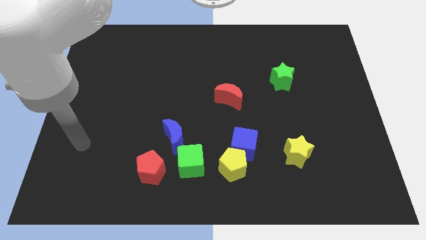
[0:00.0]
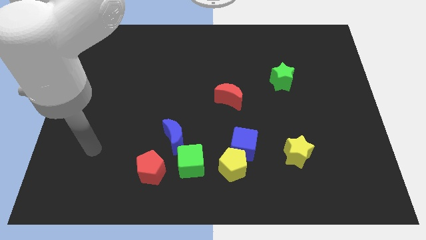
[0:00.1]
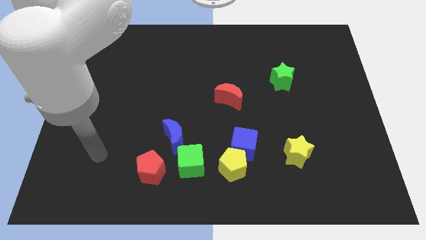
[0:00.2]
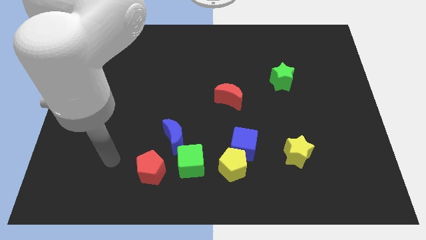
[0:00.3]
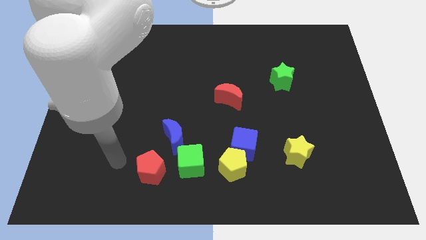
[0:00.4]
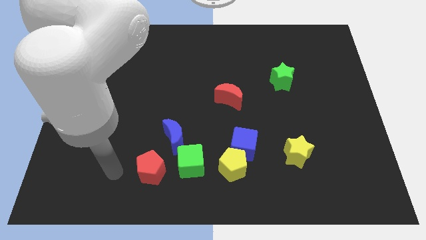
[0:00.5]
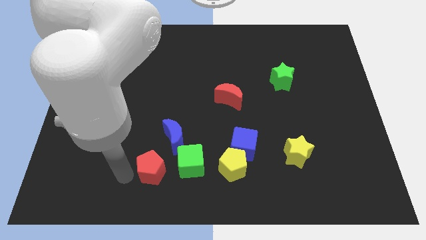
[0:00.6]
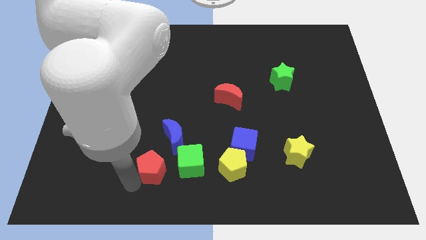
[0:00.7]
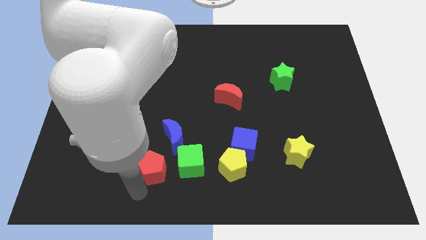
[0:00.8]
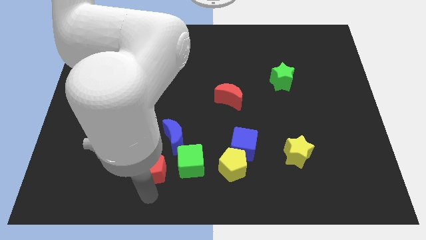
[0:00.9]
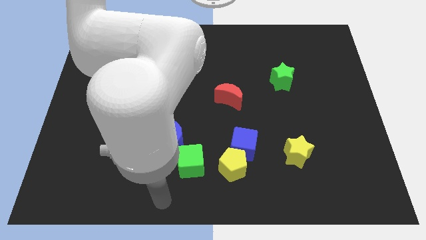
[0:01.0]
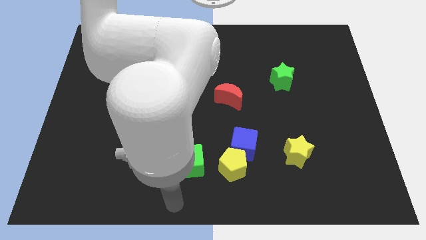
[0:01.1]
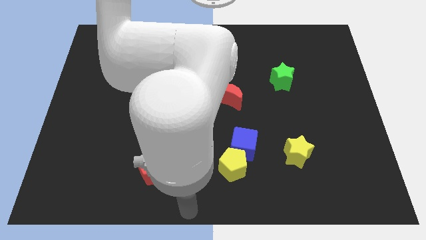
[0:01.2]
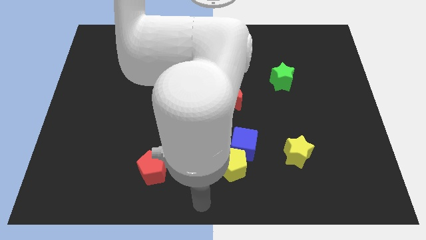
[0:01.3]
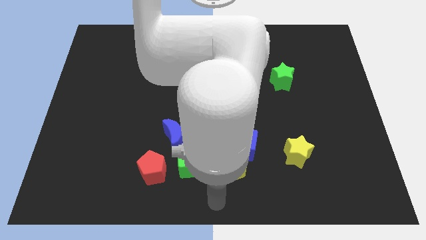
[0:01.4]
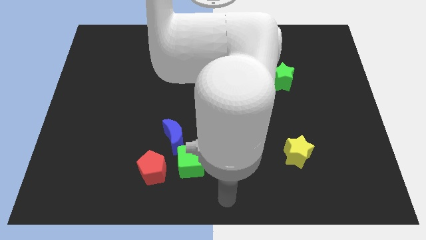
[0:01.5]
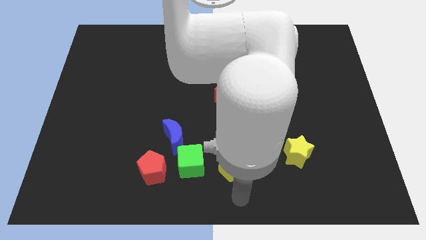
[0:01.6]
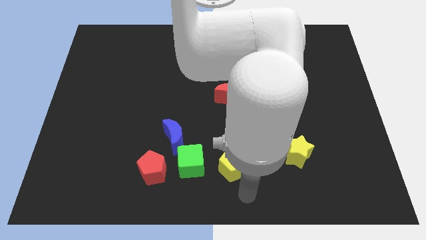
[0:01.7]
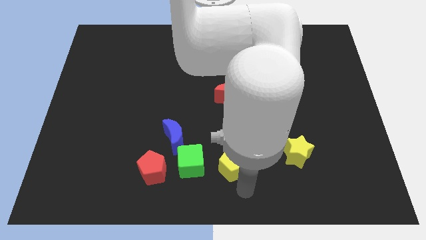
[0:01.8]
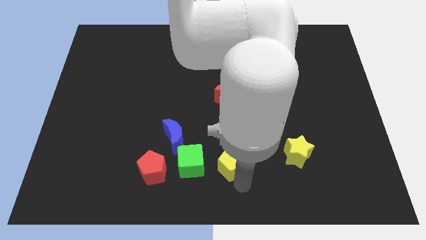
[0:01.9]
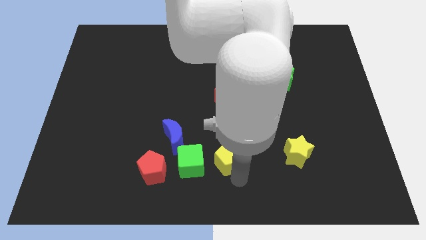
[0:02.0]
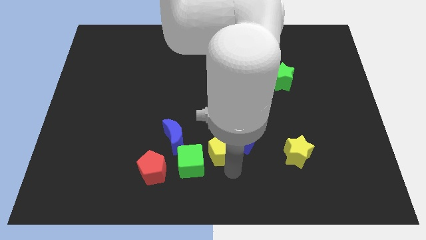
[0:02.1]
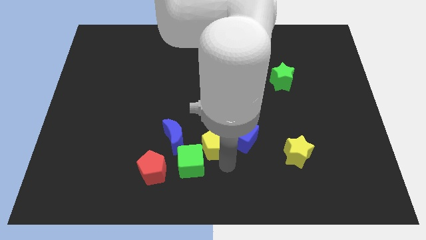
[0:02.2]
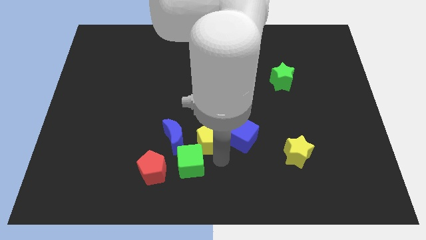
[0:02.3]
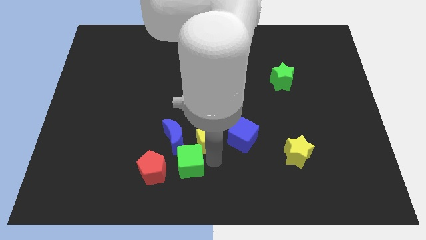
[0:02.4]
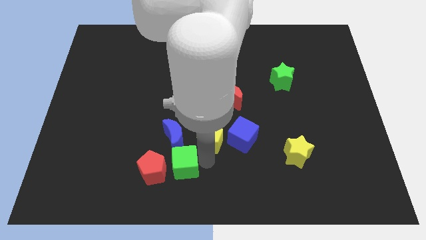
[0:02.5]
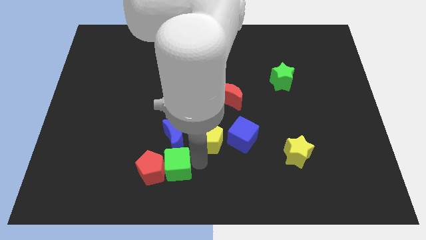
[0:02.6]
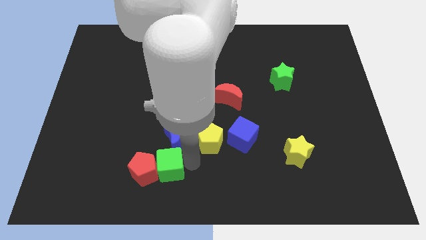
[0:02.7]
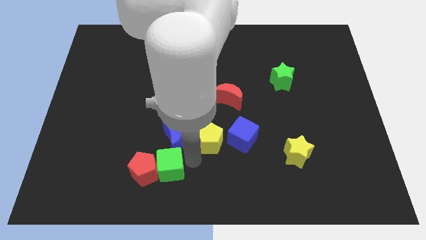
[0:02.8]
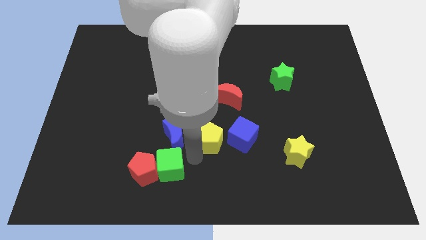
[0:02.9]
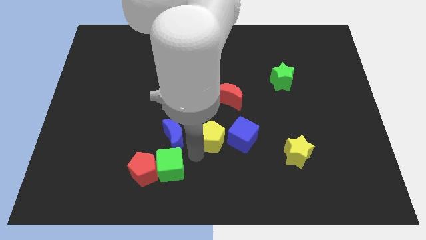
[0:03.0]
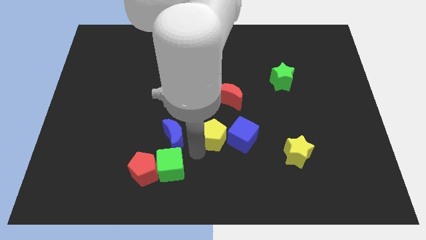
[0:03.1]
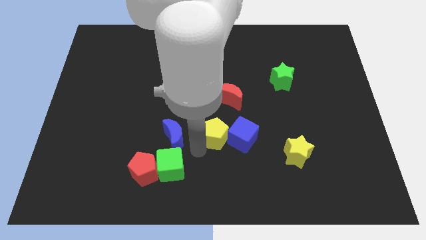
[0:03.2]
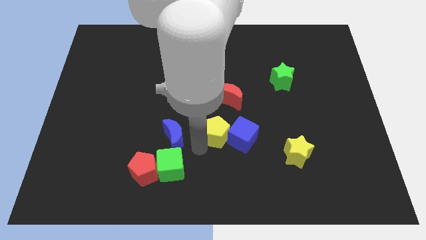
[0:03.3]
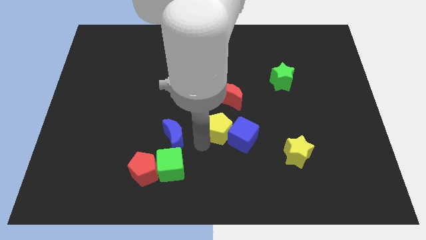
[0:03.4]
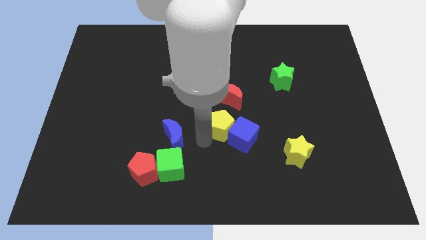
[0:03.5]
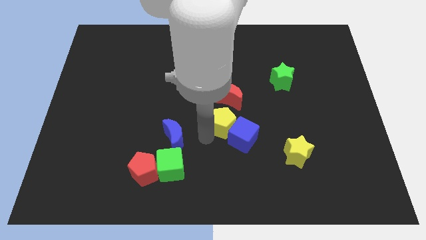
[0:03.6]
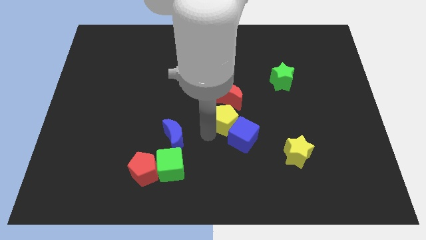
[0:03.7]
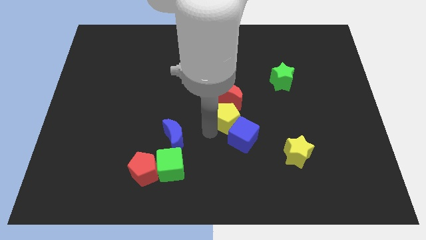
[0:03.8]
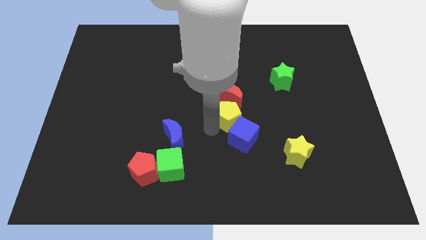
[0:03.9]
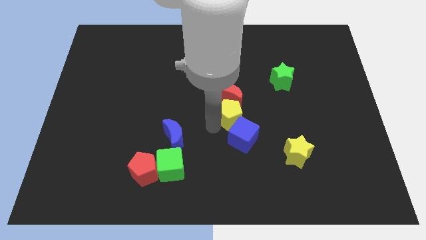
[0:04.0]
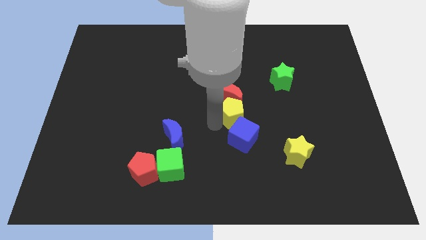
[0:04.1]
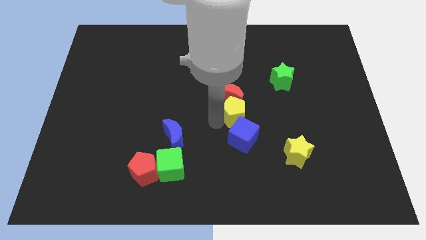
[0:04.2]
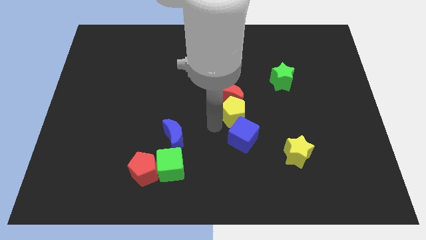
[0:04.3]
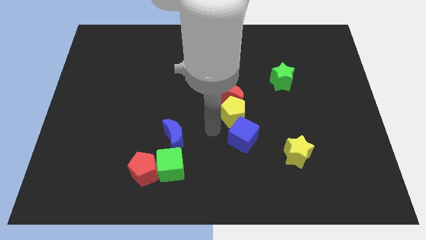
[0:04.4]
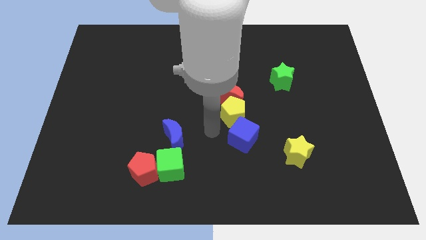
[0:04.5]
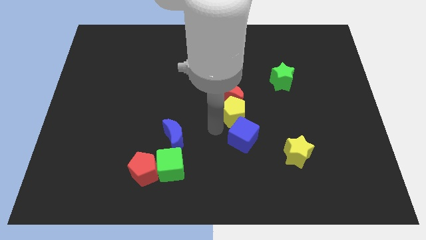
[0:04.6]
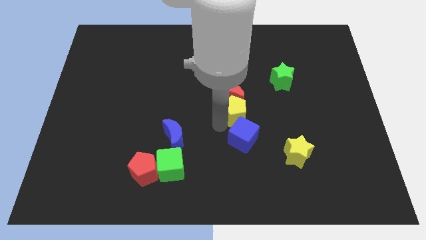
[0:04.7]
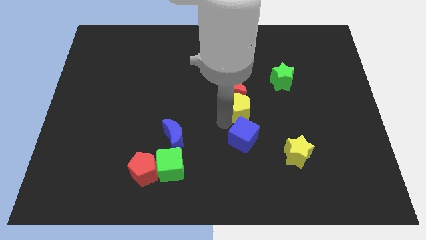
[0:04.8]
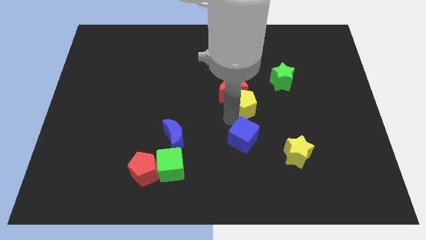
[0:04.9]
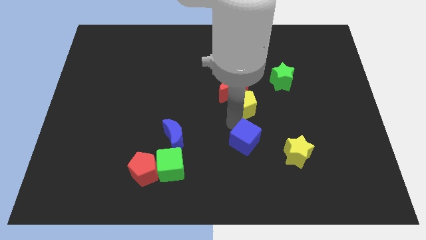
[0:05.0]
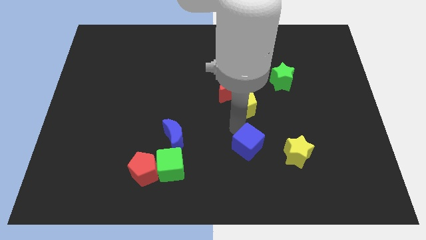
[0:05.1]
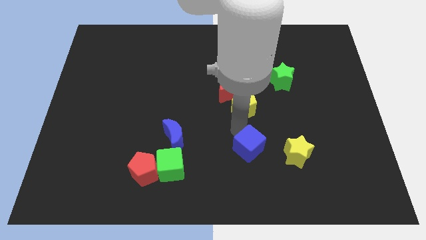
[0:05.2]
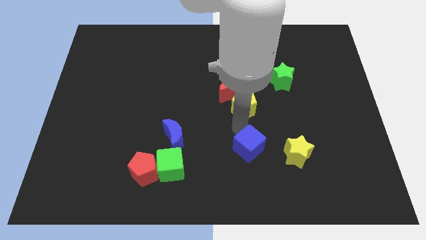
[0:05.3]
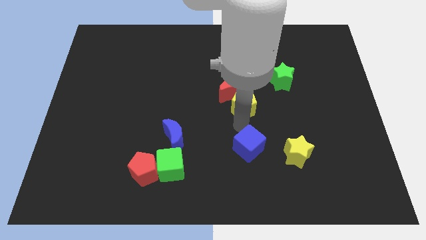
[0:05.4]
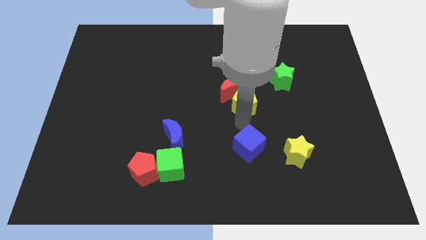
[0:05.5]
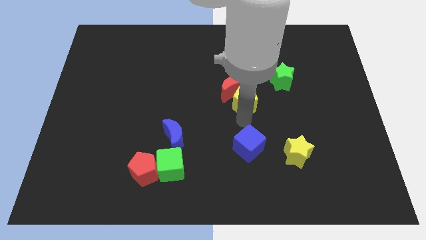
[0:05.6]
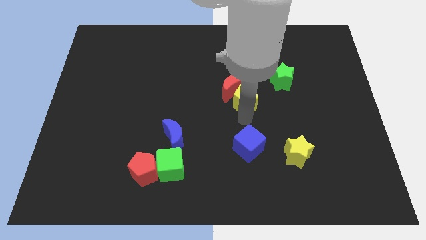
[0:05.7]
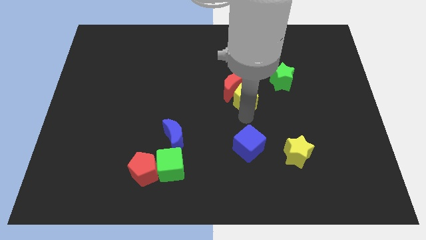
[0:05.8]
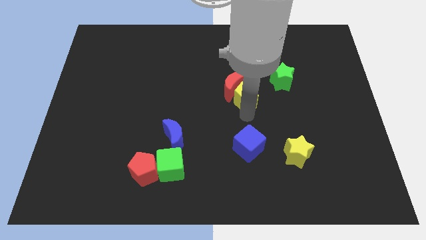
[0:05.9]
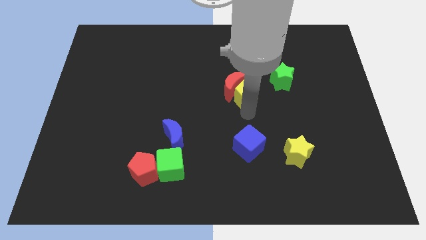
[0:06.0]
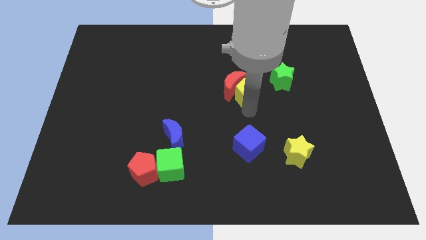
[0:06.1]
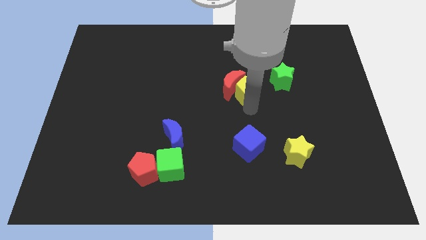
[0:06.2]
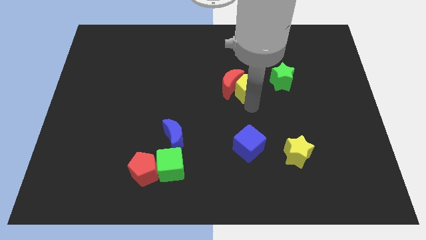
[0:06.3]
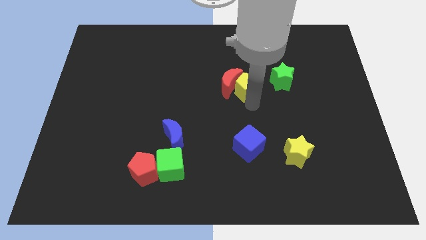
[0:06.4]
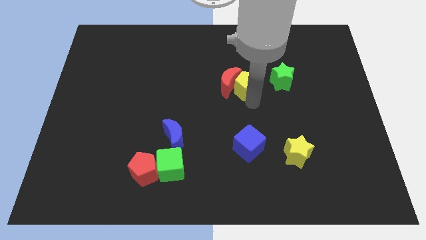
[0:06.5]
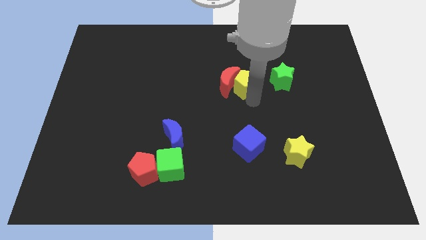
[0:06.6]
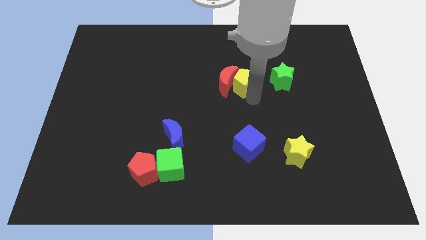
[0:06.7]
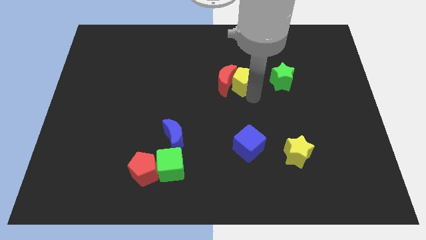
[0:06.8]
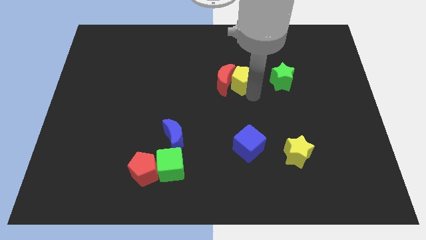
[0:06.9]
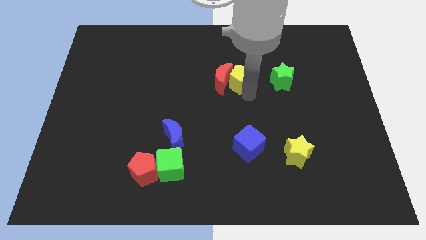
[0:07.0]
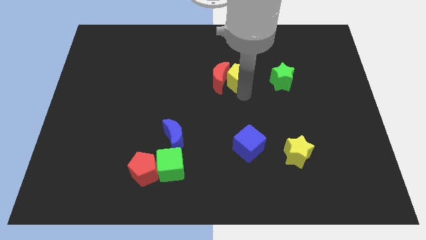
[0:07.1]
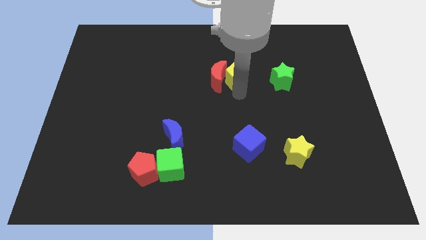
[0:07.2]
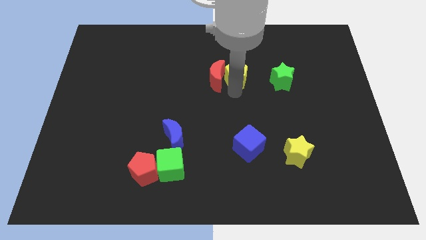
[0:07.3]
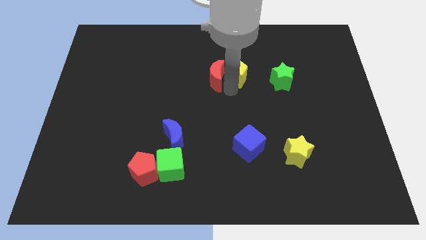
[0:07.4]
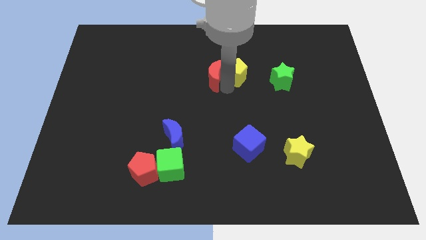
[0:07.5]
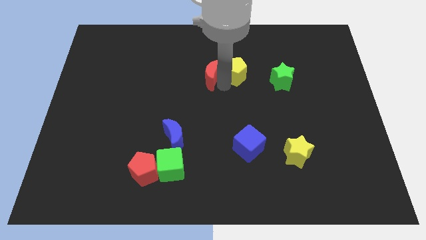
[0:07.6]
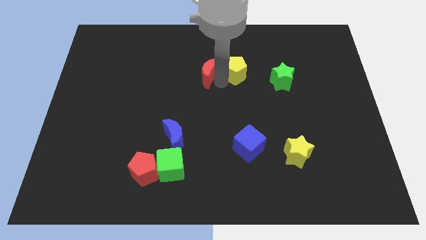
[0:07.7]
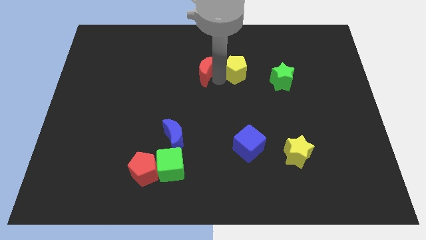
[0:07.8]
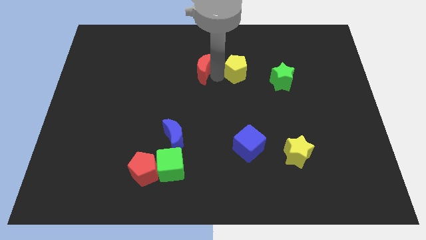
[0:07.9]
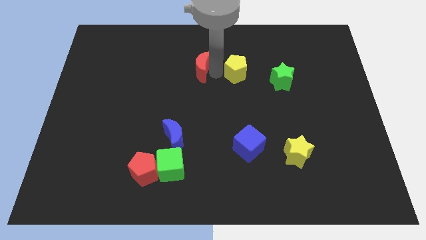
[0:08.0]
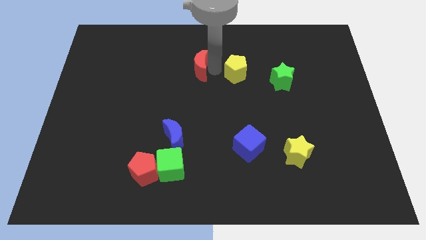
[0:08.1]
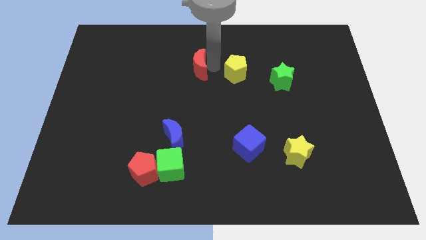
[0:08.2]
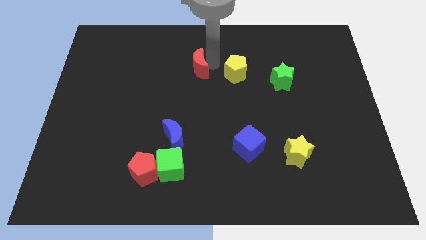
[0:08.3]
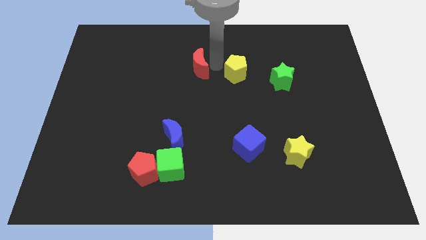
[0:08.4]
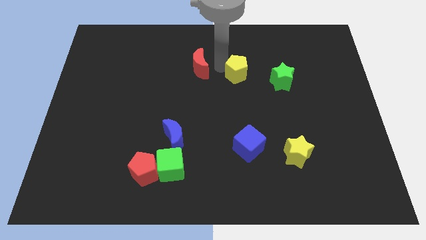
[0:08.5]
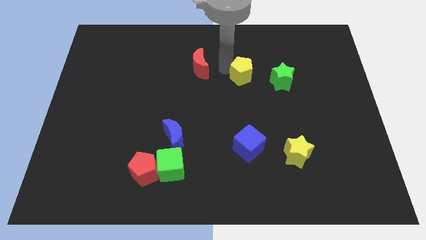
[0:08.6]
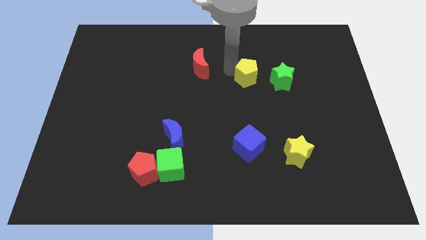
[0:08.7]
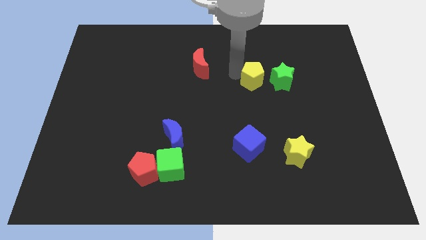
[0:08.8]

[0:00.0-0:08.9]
put the yellow pentagon to the top left side of the green star
